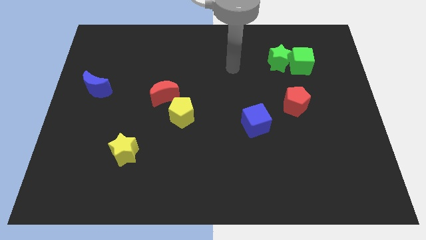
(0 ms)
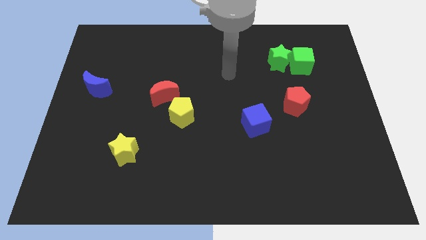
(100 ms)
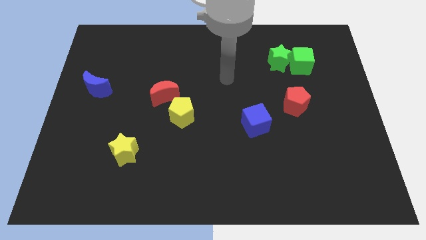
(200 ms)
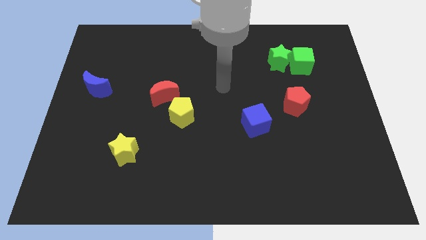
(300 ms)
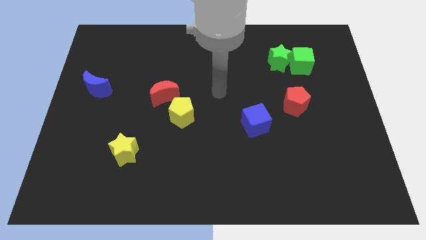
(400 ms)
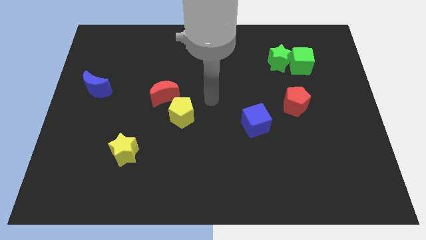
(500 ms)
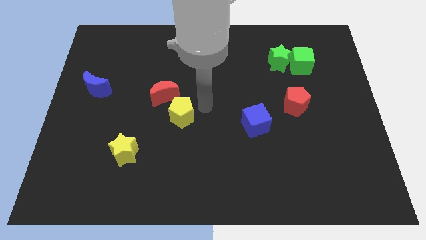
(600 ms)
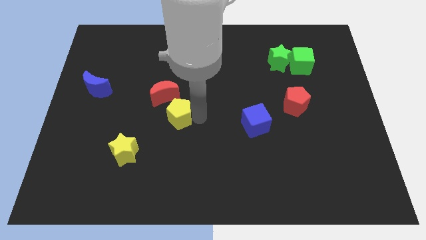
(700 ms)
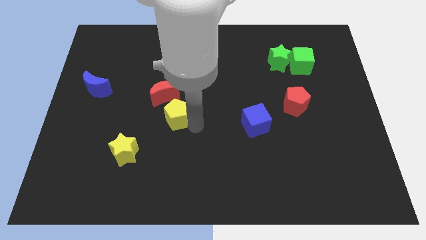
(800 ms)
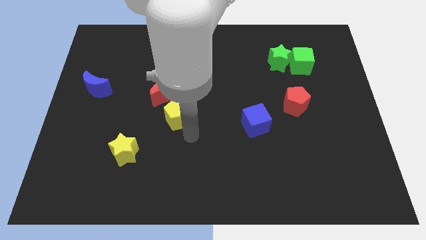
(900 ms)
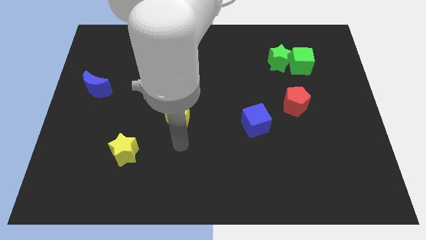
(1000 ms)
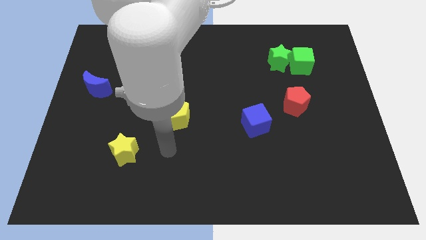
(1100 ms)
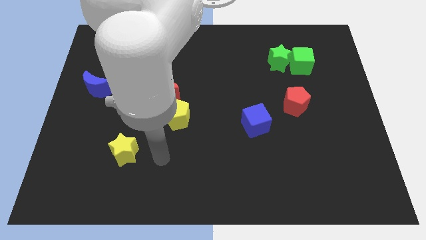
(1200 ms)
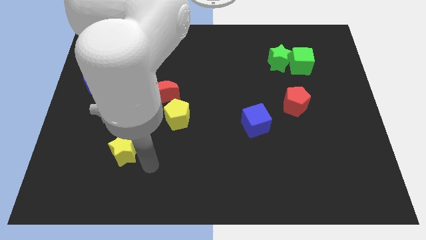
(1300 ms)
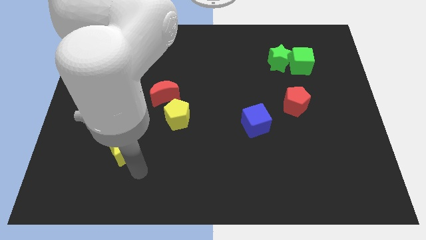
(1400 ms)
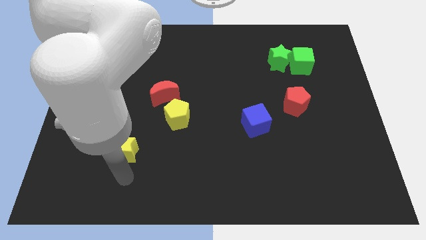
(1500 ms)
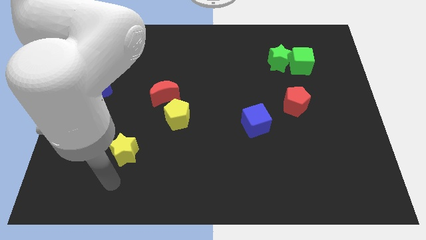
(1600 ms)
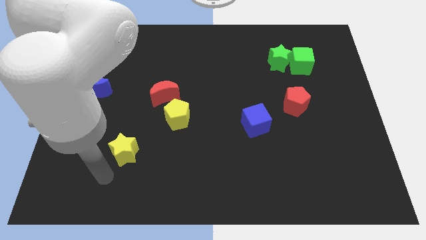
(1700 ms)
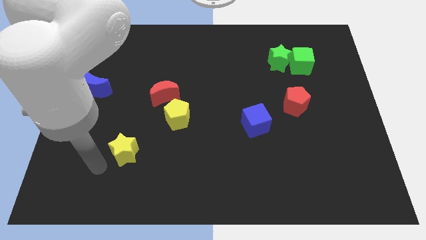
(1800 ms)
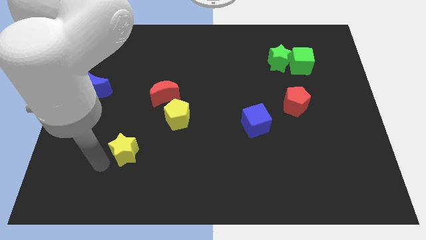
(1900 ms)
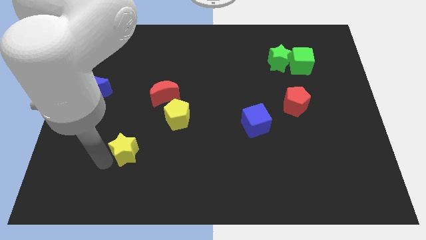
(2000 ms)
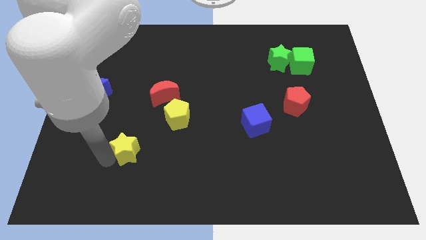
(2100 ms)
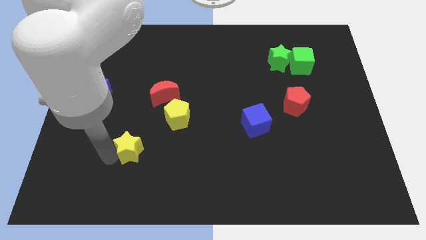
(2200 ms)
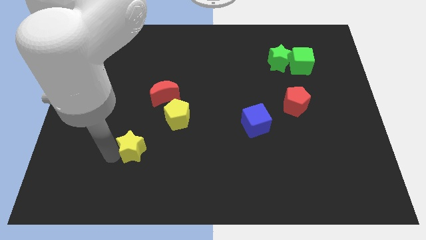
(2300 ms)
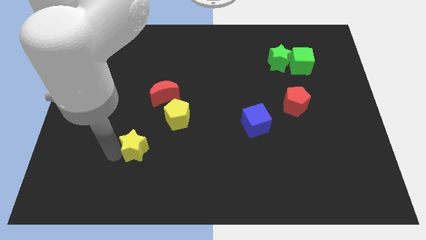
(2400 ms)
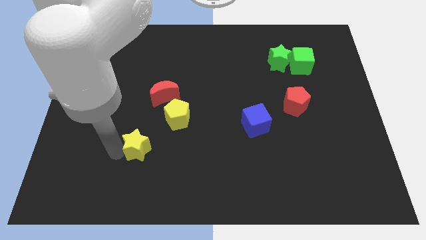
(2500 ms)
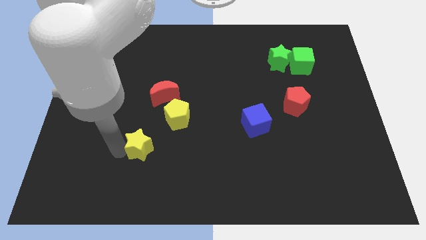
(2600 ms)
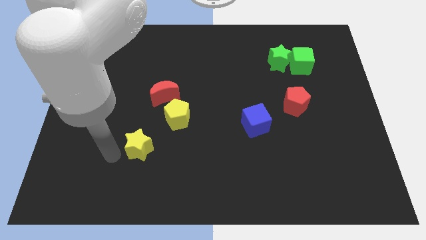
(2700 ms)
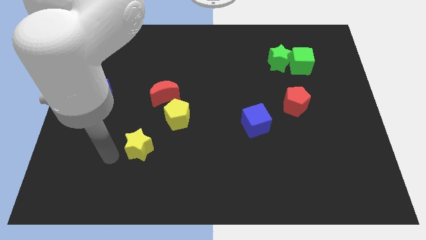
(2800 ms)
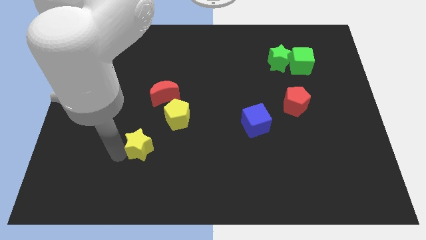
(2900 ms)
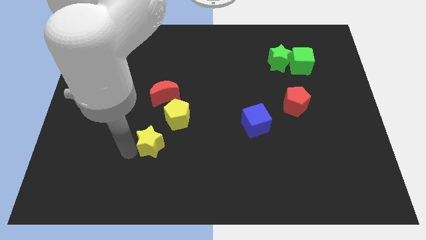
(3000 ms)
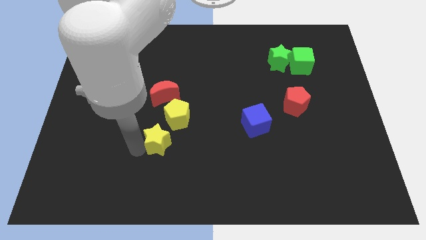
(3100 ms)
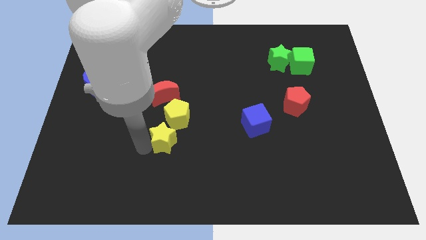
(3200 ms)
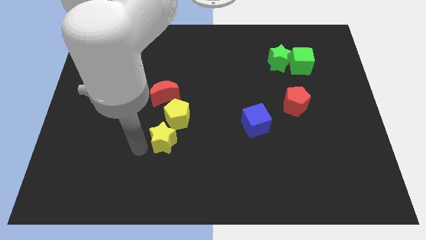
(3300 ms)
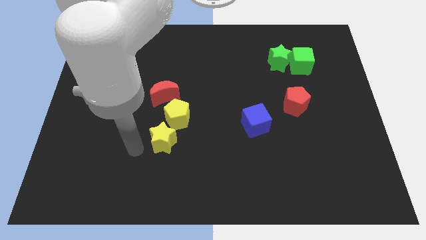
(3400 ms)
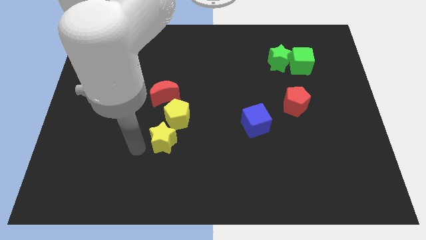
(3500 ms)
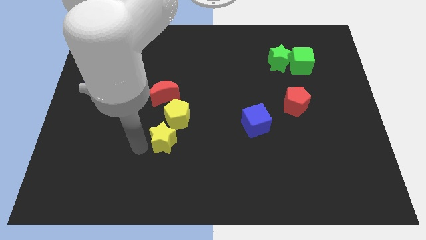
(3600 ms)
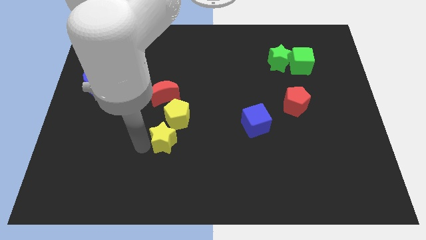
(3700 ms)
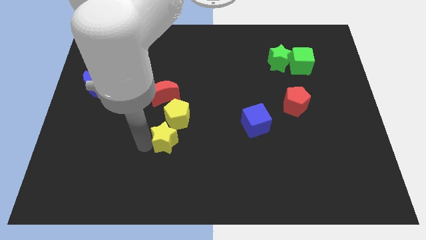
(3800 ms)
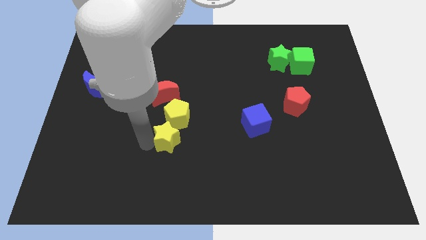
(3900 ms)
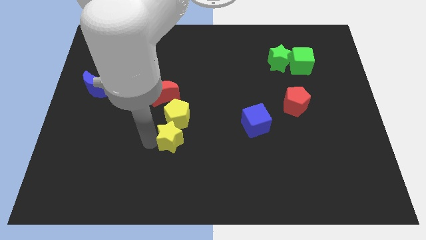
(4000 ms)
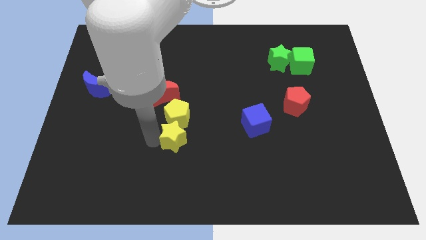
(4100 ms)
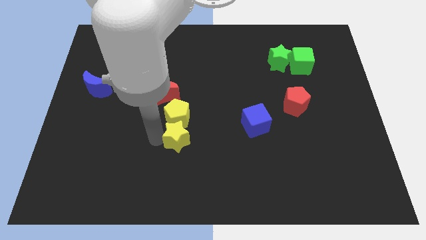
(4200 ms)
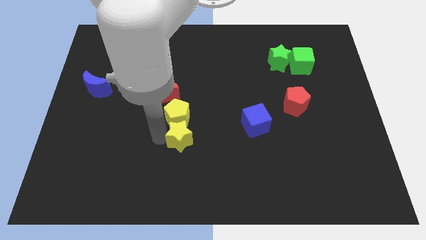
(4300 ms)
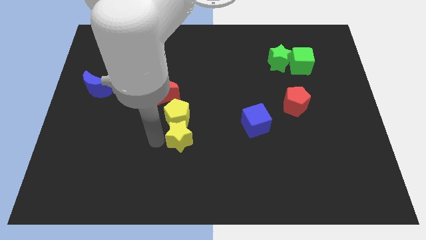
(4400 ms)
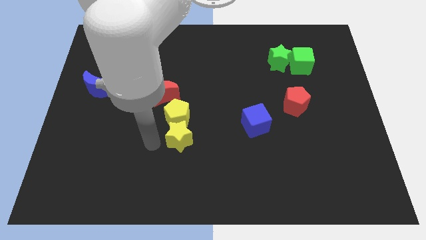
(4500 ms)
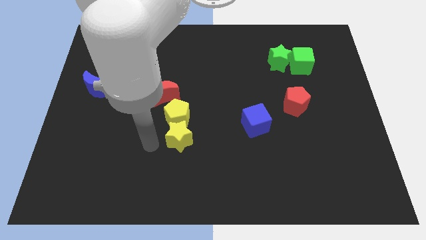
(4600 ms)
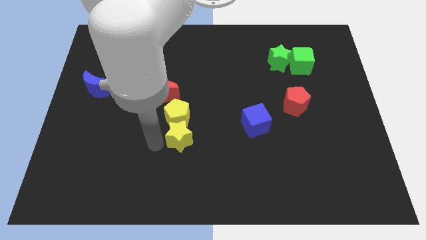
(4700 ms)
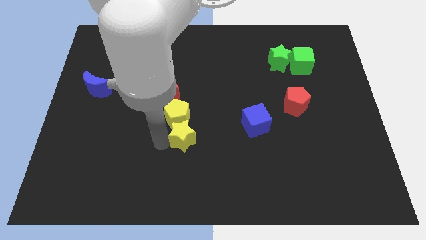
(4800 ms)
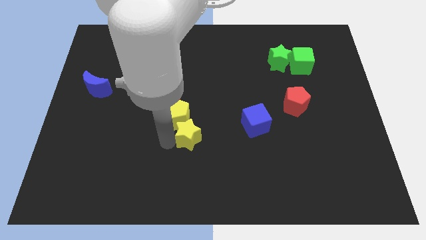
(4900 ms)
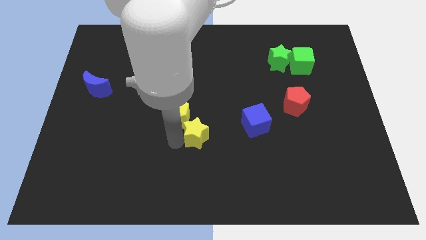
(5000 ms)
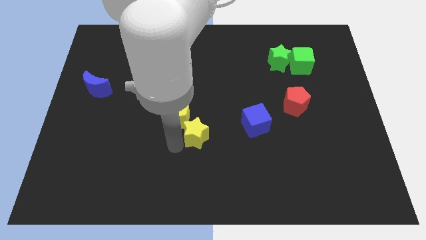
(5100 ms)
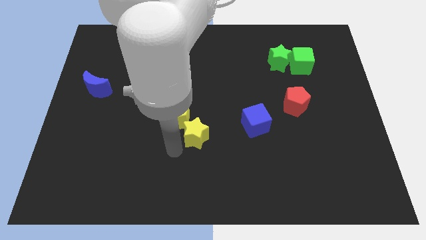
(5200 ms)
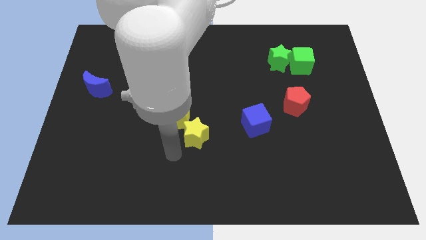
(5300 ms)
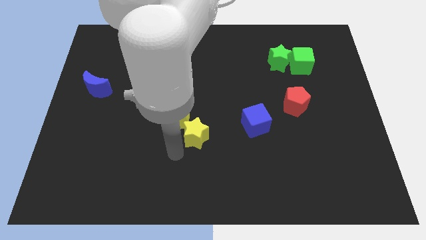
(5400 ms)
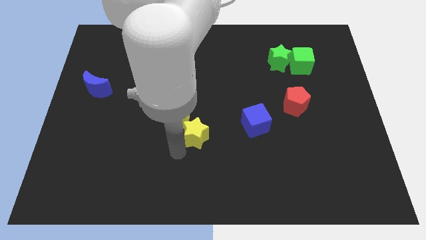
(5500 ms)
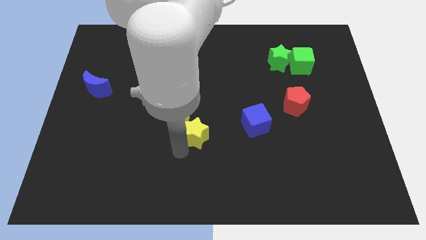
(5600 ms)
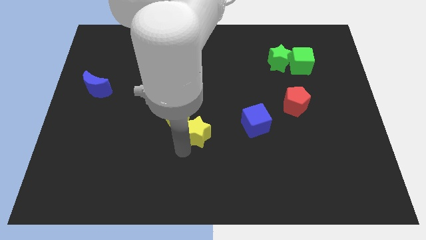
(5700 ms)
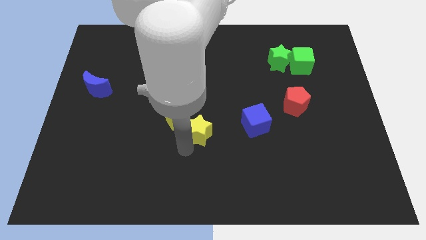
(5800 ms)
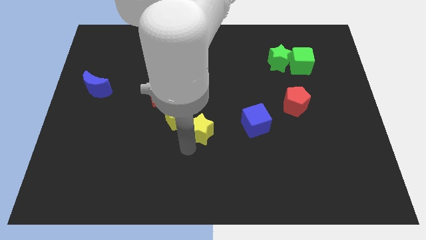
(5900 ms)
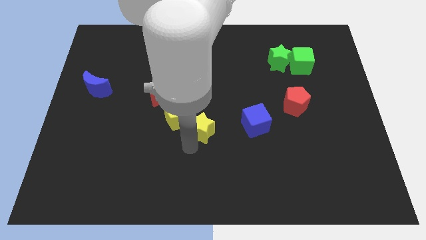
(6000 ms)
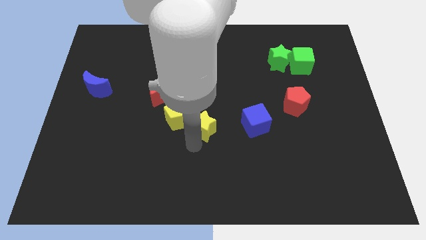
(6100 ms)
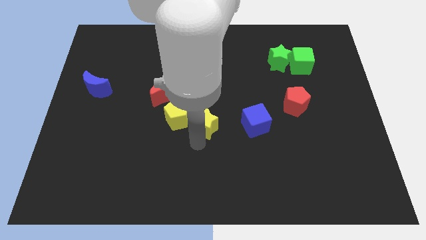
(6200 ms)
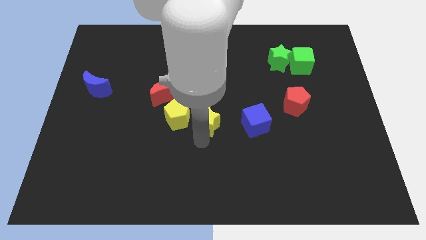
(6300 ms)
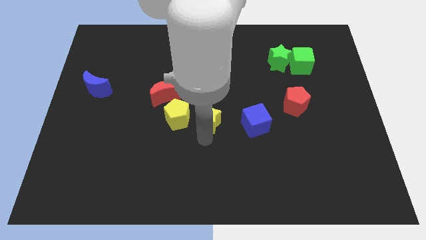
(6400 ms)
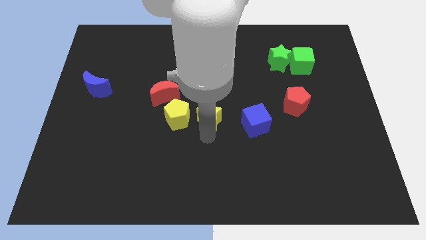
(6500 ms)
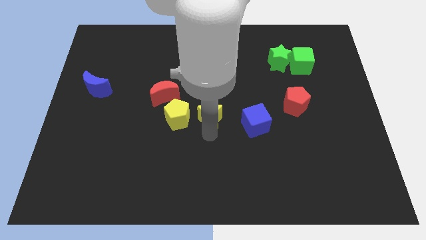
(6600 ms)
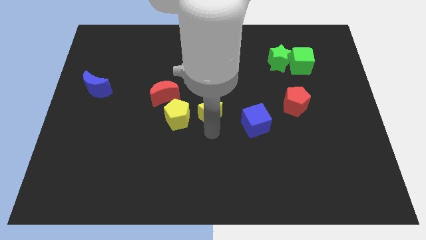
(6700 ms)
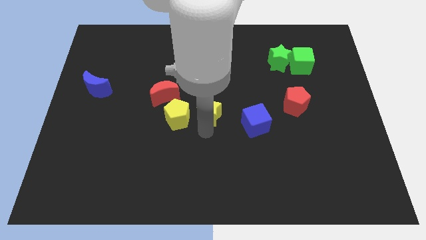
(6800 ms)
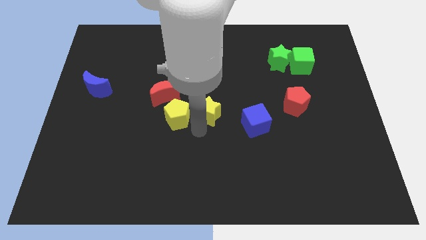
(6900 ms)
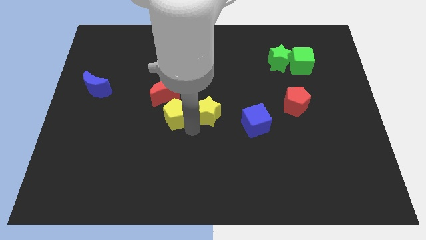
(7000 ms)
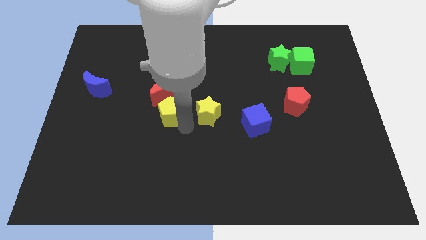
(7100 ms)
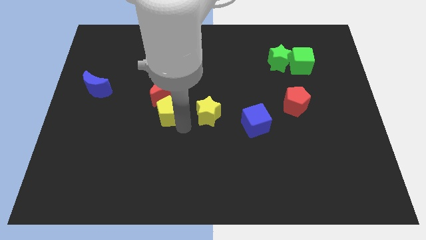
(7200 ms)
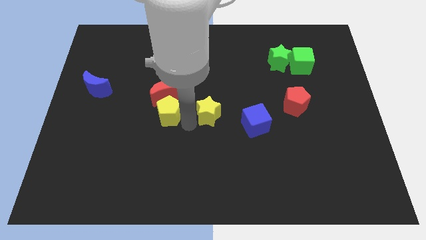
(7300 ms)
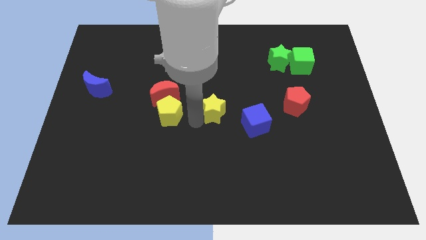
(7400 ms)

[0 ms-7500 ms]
push the yellow star diagonally up and to the left of the blue cube
